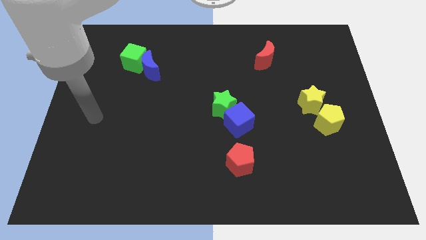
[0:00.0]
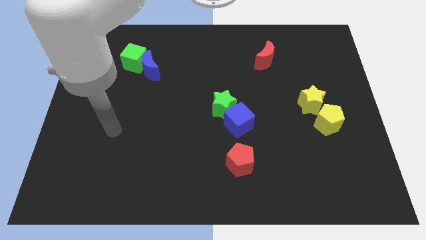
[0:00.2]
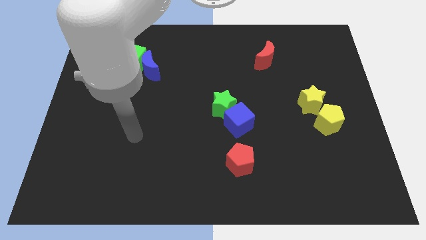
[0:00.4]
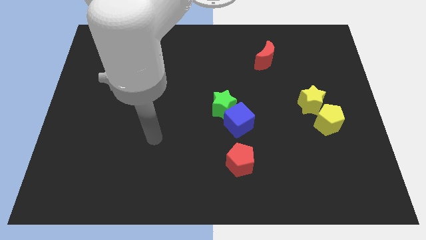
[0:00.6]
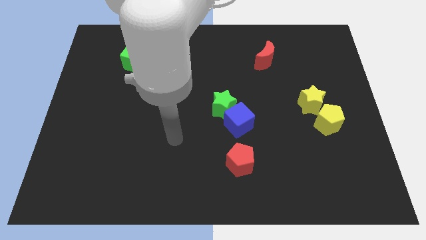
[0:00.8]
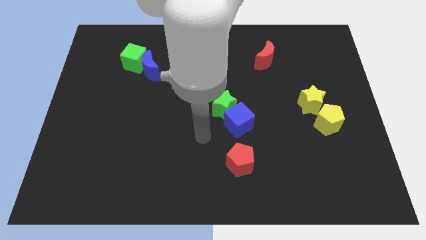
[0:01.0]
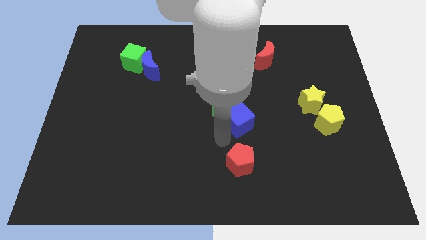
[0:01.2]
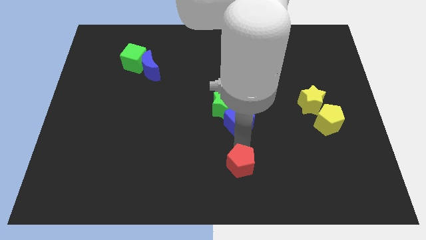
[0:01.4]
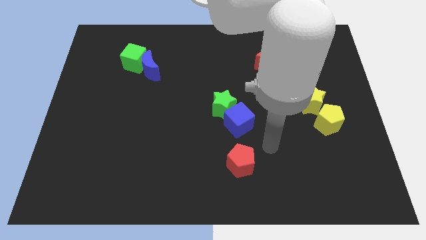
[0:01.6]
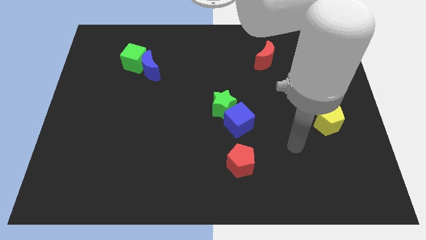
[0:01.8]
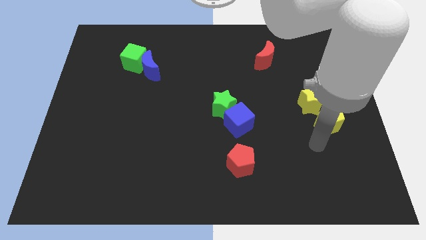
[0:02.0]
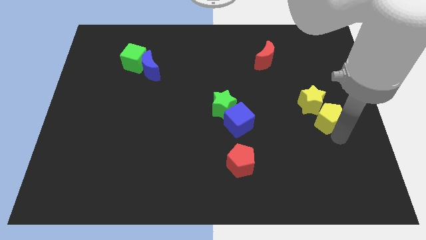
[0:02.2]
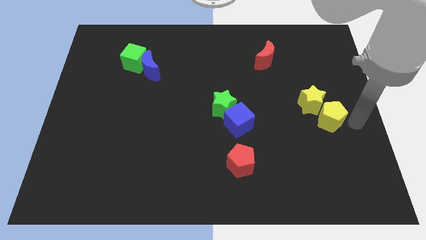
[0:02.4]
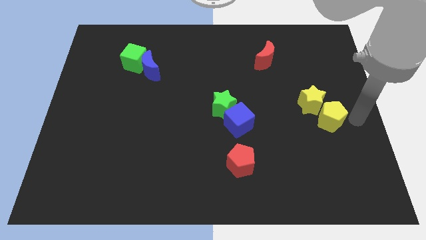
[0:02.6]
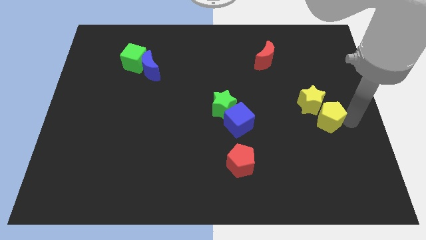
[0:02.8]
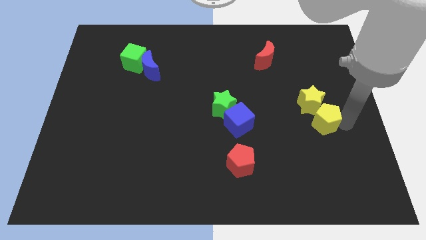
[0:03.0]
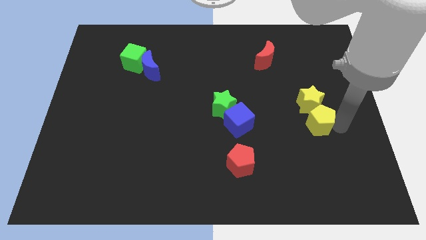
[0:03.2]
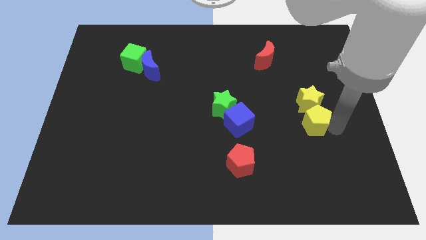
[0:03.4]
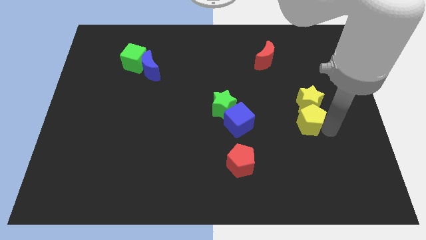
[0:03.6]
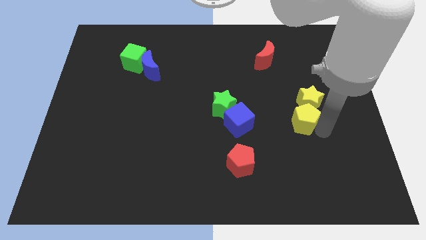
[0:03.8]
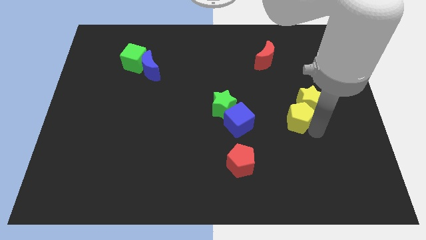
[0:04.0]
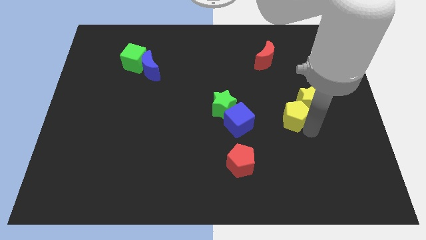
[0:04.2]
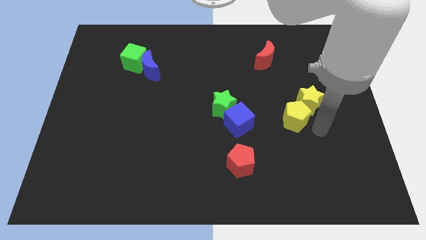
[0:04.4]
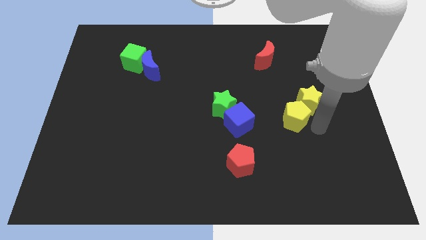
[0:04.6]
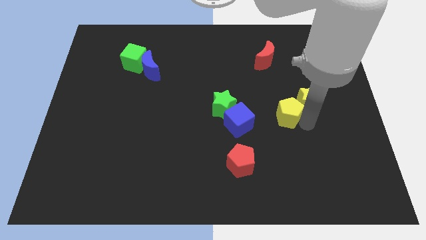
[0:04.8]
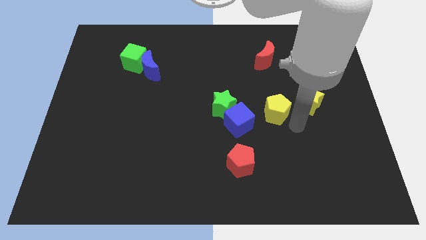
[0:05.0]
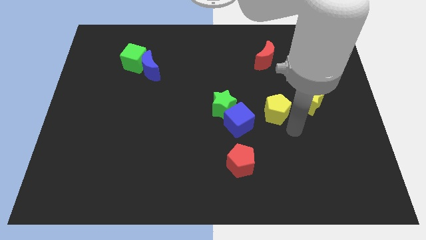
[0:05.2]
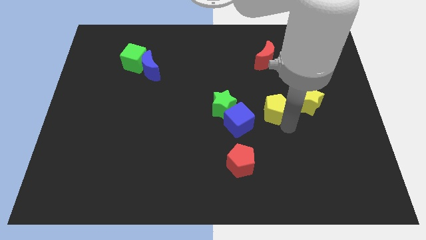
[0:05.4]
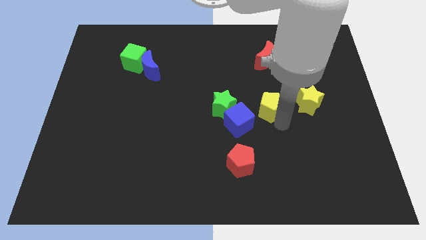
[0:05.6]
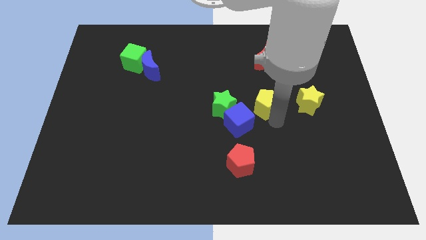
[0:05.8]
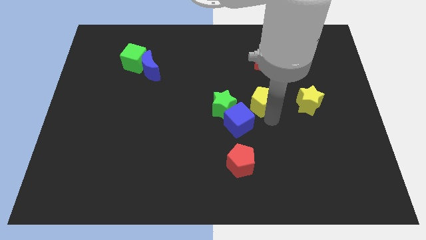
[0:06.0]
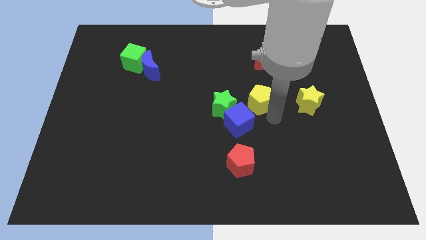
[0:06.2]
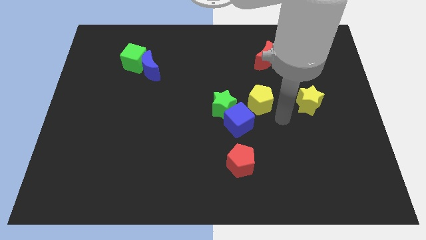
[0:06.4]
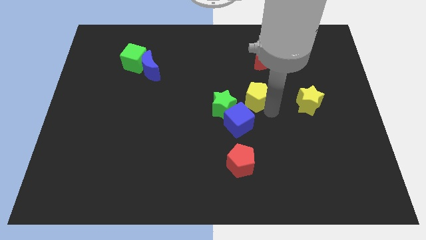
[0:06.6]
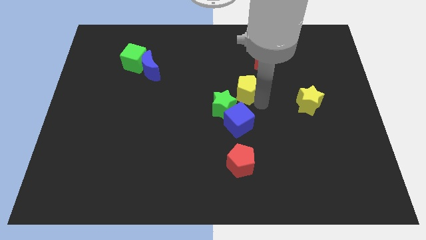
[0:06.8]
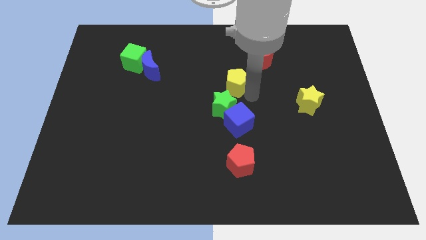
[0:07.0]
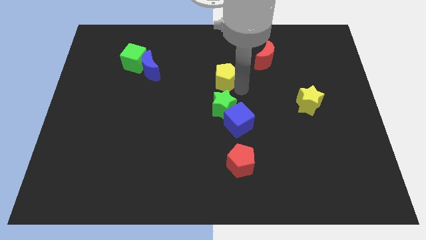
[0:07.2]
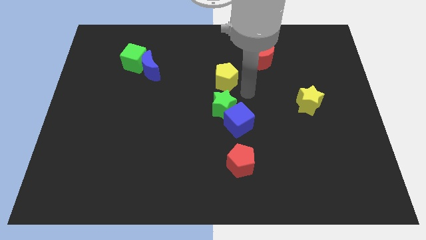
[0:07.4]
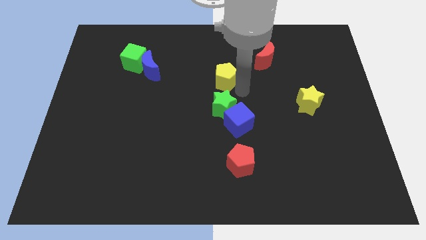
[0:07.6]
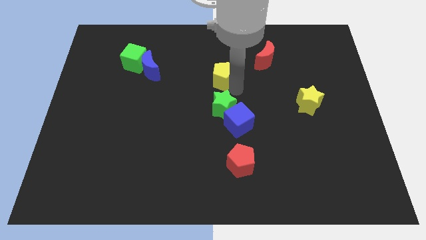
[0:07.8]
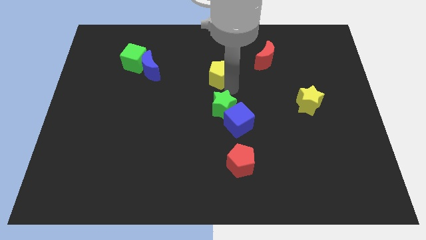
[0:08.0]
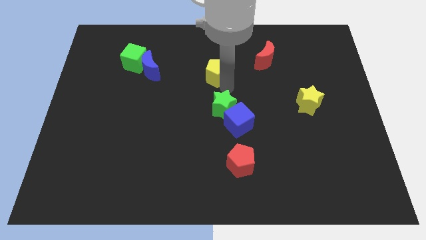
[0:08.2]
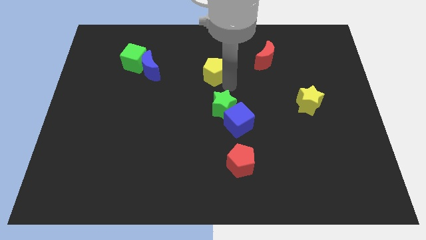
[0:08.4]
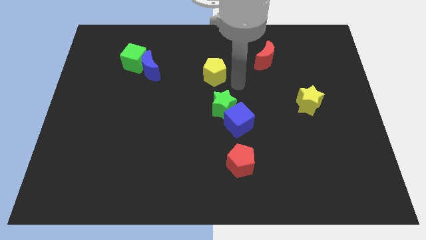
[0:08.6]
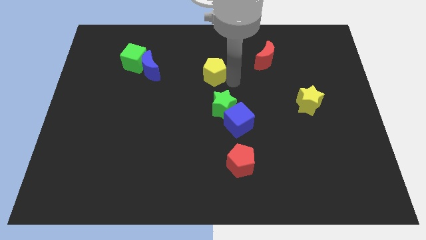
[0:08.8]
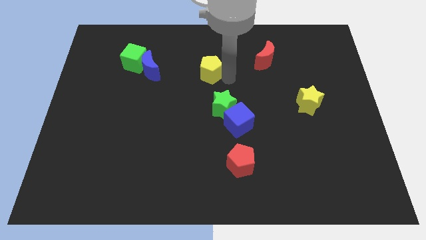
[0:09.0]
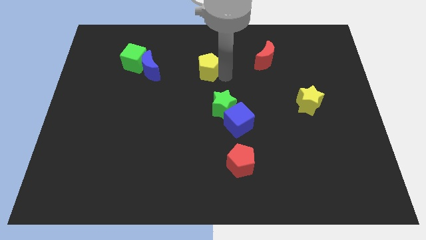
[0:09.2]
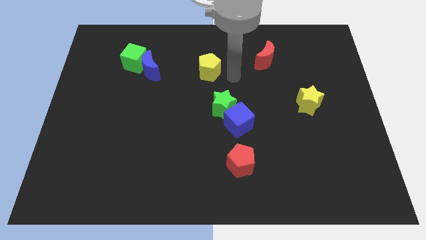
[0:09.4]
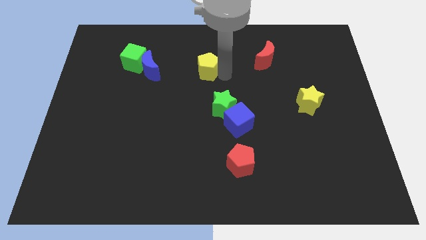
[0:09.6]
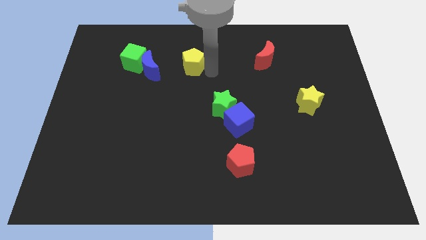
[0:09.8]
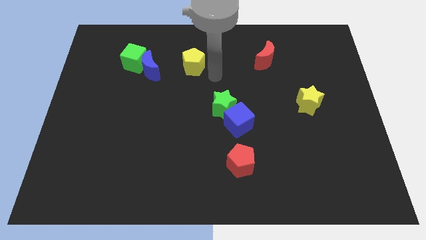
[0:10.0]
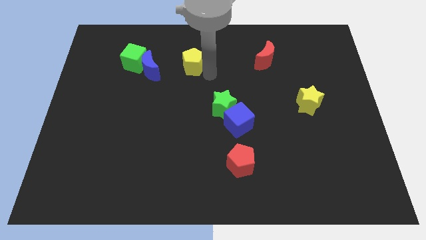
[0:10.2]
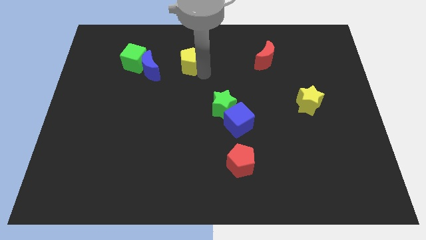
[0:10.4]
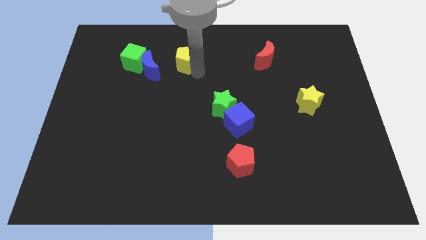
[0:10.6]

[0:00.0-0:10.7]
move the yellow pentagon diagonally up and to the right of the blue moon

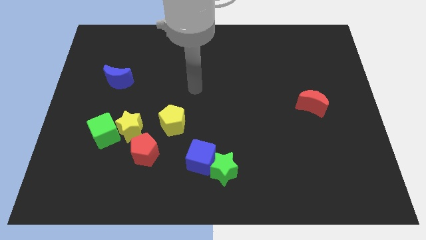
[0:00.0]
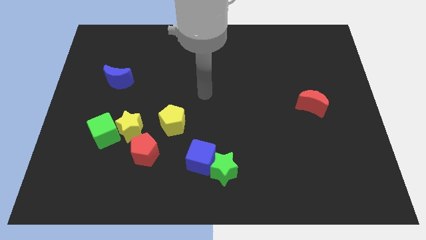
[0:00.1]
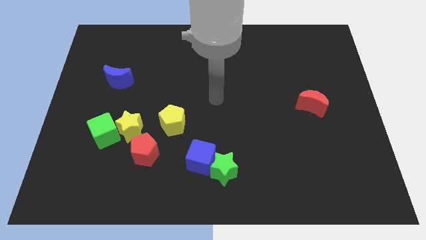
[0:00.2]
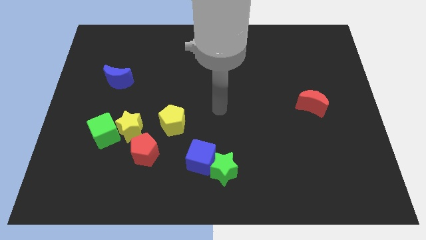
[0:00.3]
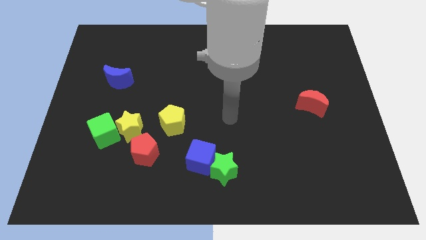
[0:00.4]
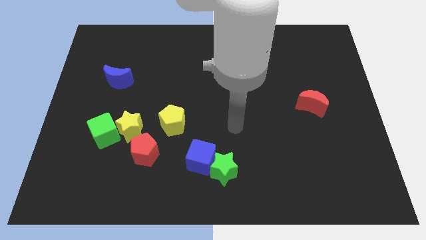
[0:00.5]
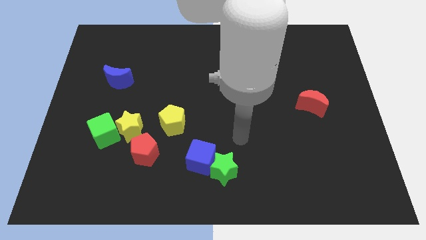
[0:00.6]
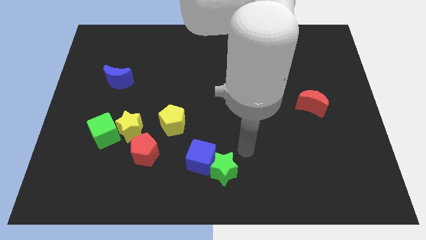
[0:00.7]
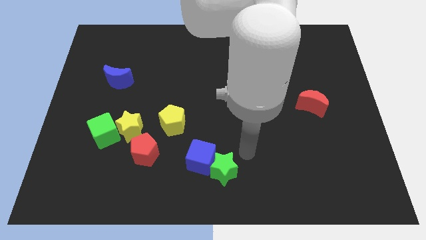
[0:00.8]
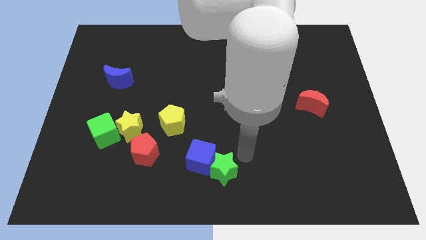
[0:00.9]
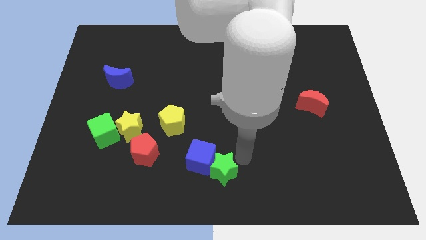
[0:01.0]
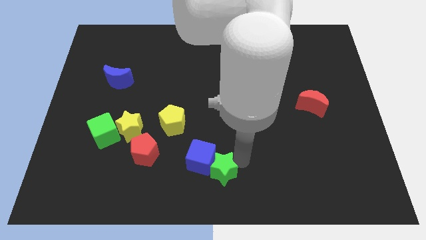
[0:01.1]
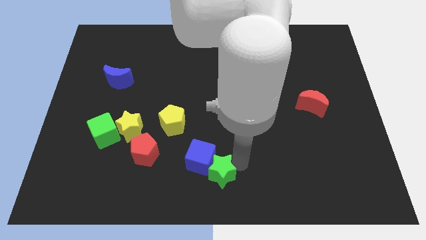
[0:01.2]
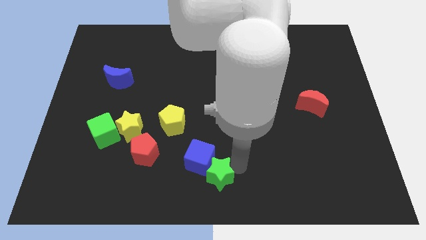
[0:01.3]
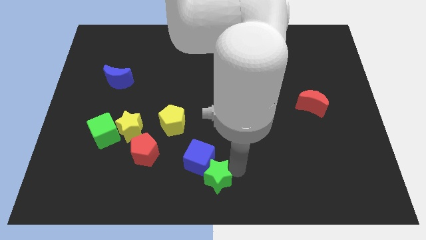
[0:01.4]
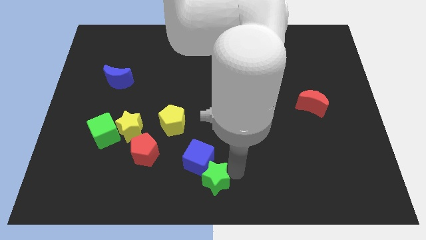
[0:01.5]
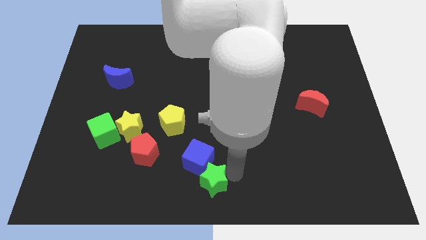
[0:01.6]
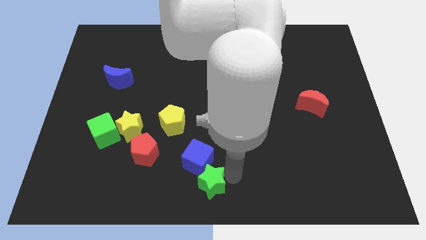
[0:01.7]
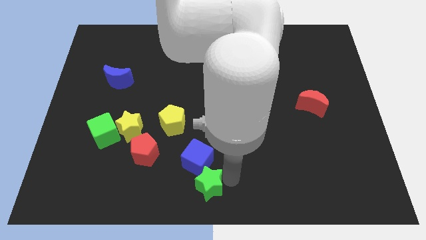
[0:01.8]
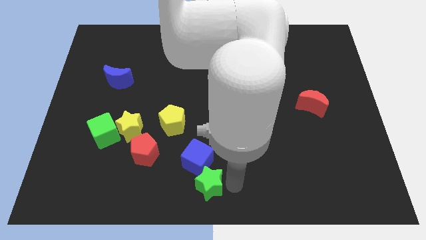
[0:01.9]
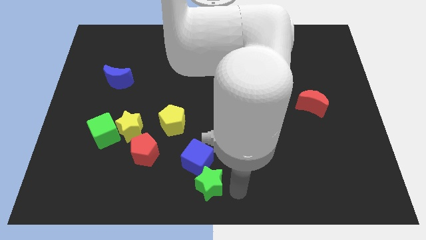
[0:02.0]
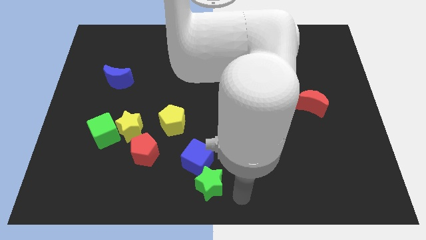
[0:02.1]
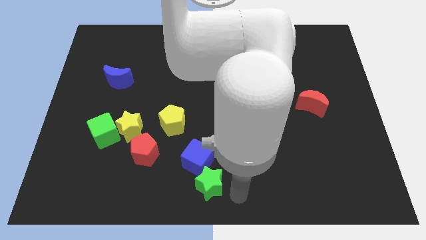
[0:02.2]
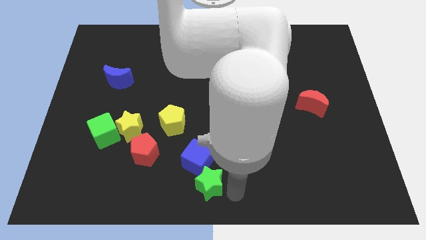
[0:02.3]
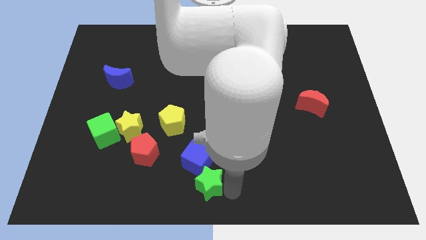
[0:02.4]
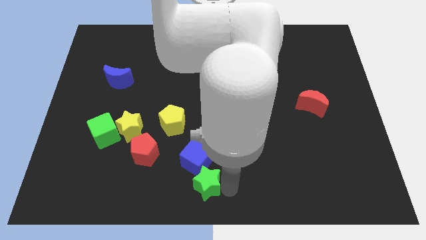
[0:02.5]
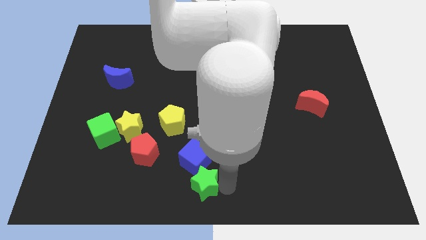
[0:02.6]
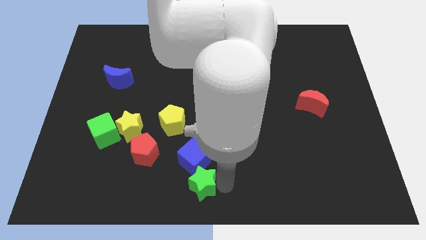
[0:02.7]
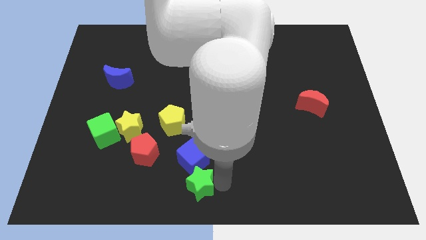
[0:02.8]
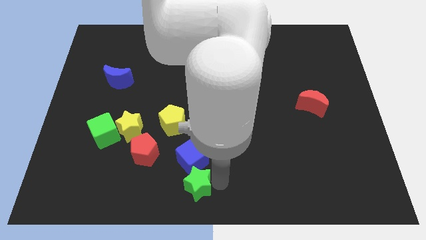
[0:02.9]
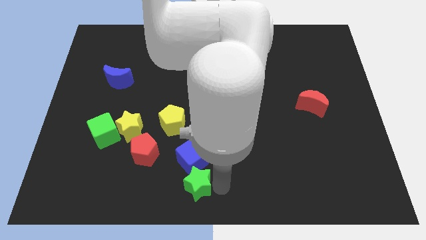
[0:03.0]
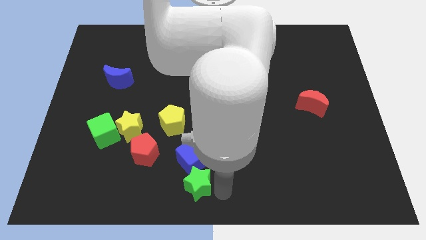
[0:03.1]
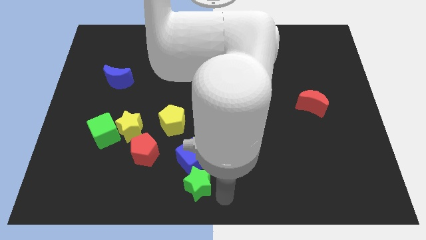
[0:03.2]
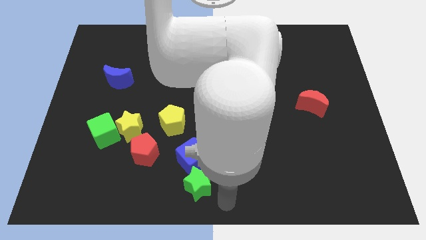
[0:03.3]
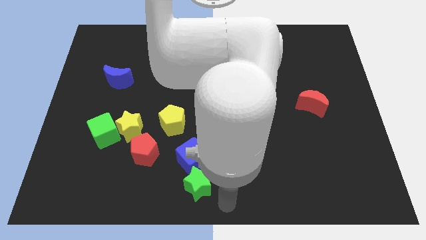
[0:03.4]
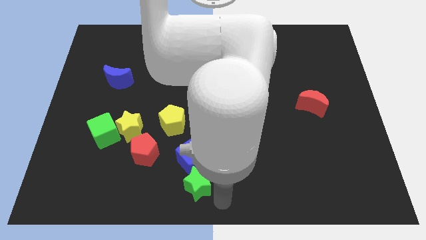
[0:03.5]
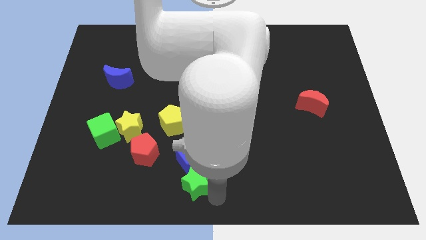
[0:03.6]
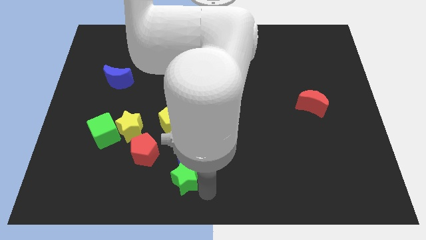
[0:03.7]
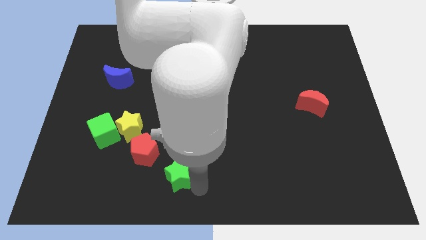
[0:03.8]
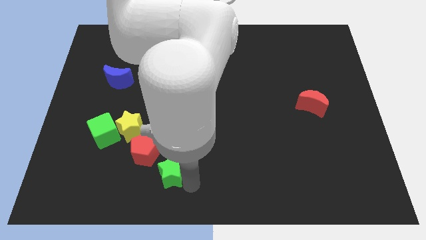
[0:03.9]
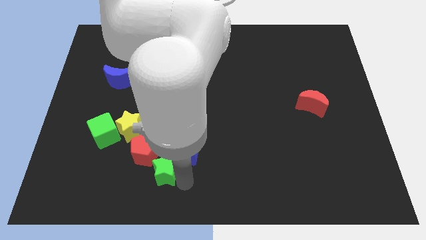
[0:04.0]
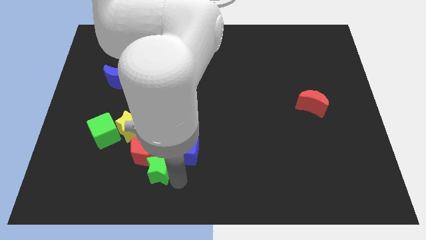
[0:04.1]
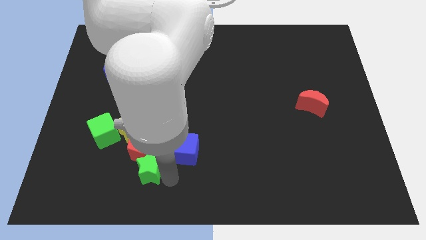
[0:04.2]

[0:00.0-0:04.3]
slide the green star diagonally down and to the right of the yellow star
